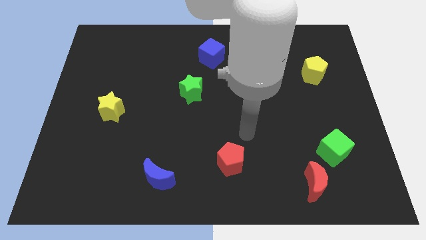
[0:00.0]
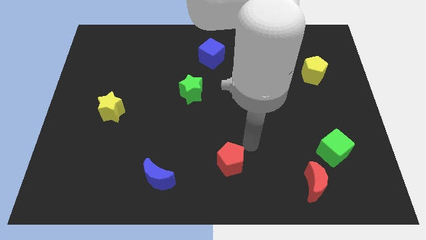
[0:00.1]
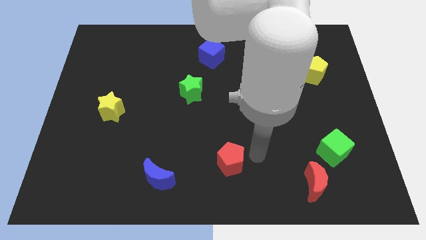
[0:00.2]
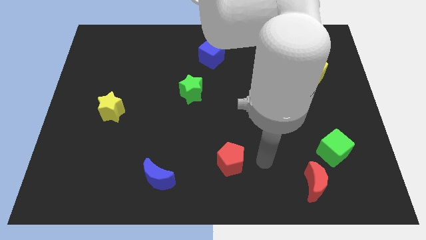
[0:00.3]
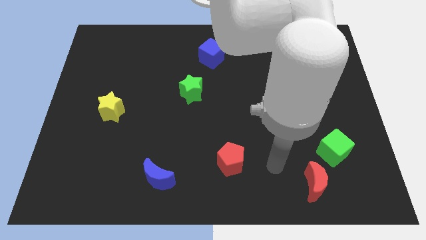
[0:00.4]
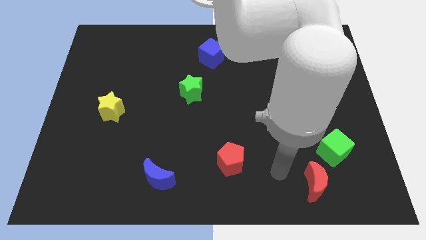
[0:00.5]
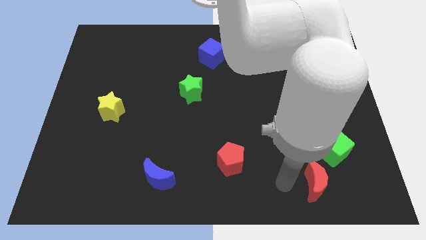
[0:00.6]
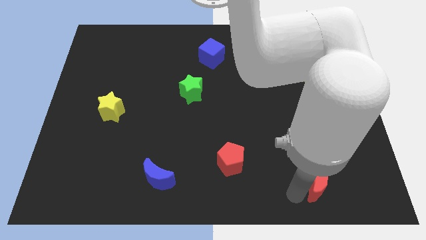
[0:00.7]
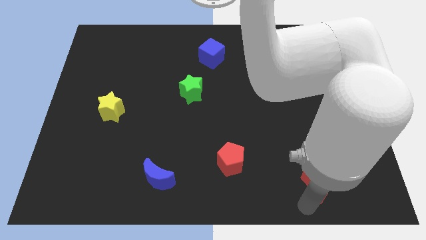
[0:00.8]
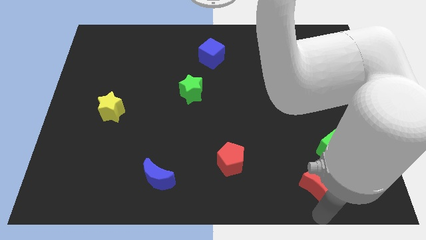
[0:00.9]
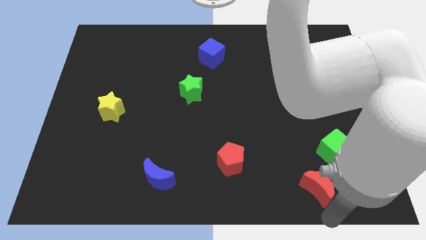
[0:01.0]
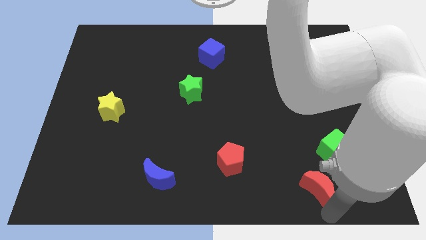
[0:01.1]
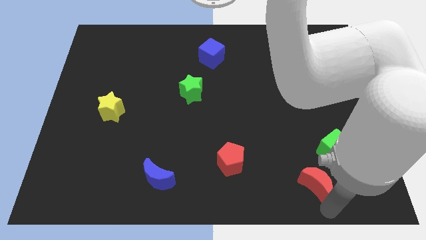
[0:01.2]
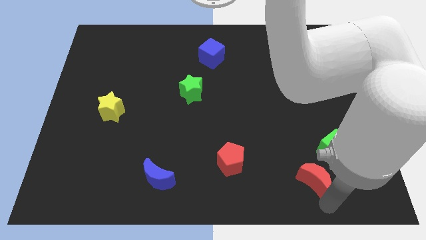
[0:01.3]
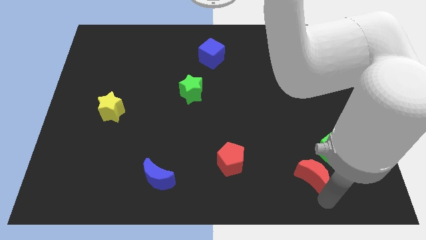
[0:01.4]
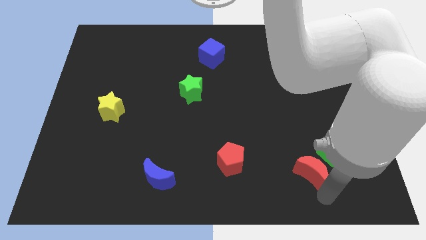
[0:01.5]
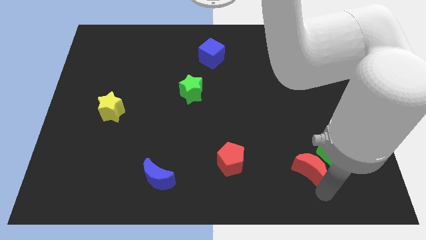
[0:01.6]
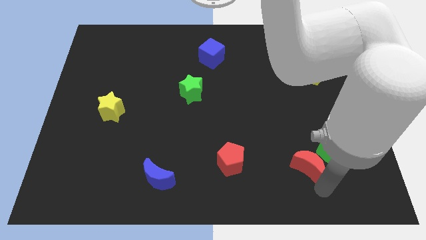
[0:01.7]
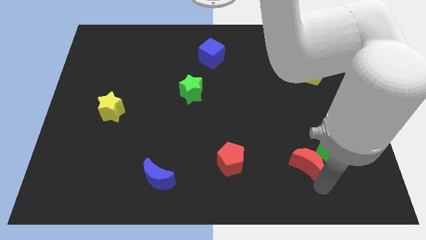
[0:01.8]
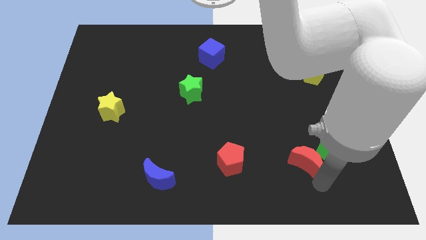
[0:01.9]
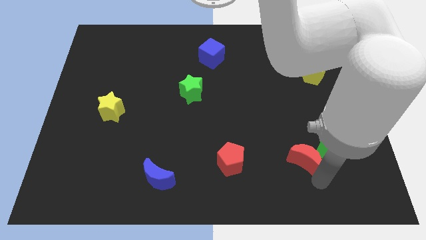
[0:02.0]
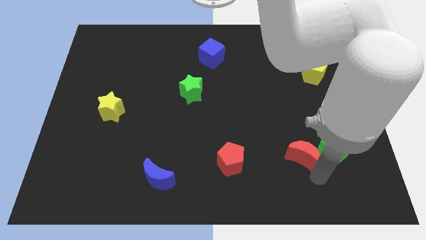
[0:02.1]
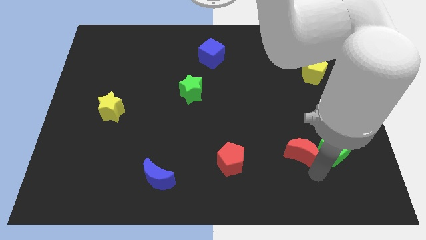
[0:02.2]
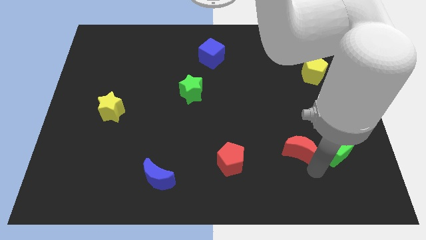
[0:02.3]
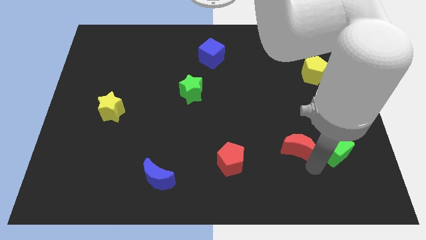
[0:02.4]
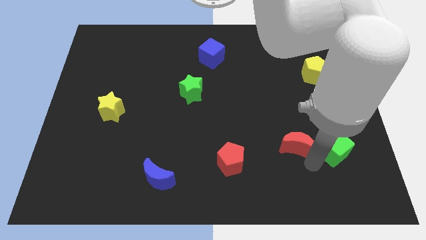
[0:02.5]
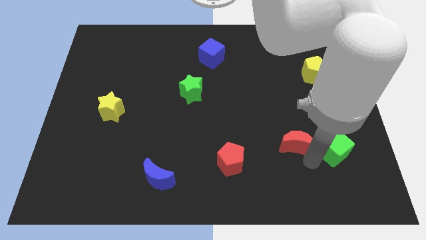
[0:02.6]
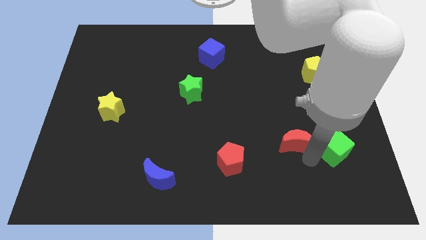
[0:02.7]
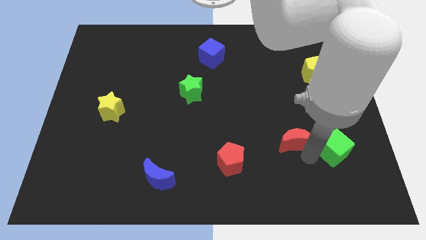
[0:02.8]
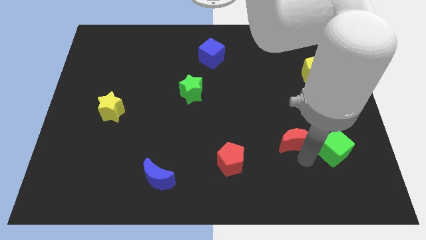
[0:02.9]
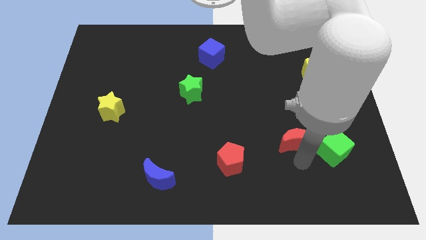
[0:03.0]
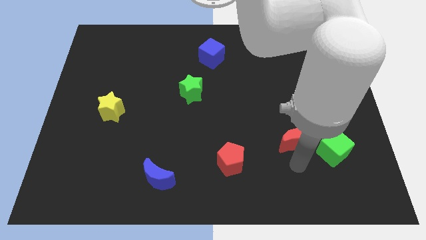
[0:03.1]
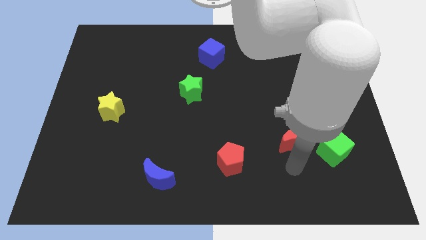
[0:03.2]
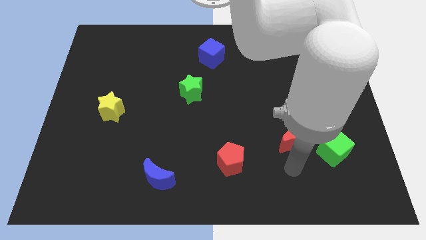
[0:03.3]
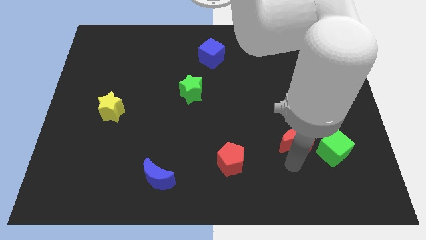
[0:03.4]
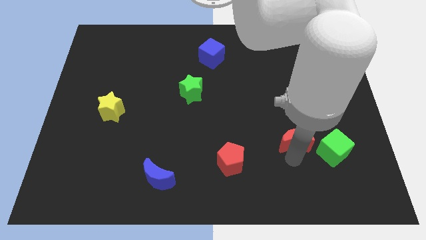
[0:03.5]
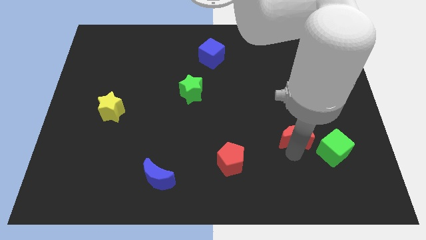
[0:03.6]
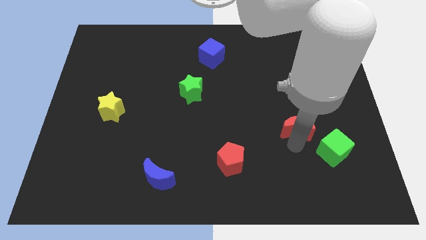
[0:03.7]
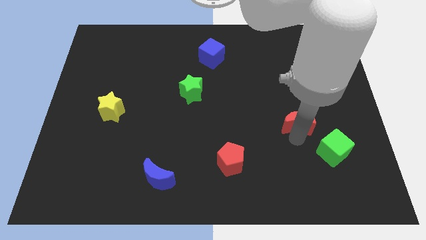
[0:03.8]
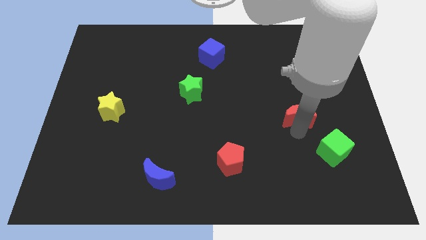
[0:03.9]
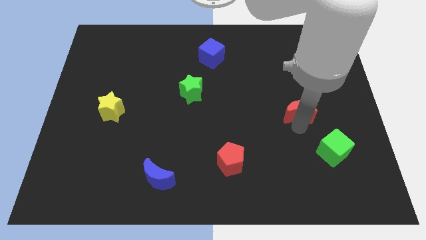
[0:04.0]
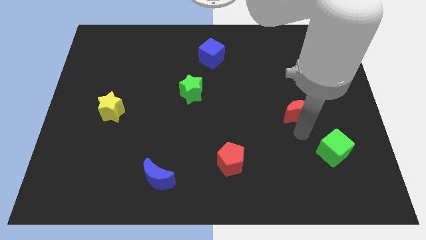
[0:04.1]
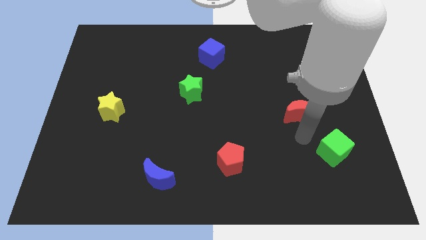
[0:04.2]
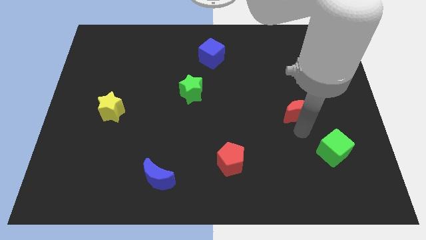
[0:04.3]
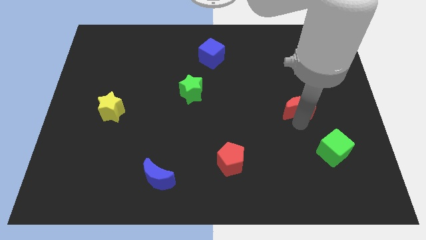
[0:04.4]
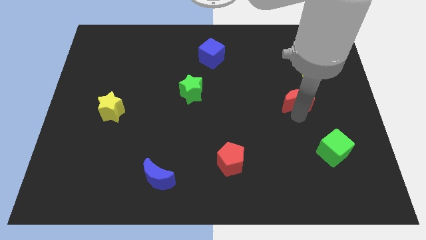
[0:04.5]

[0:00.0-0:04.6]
slide the red moon upwards

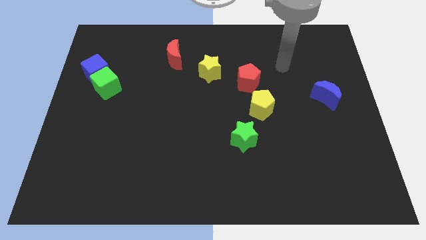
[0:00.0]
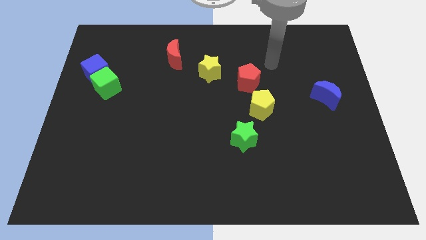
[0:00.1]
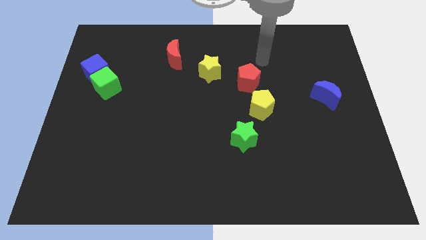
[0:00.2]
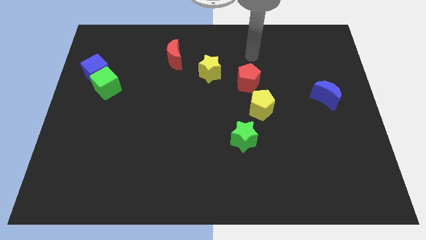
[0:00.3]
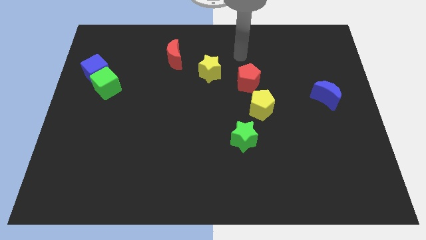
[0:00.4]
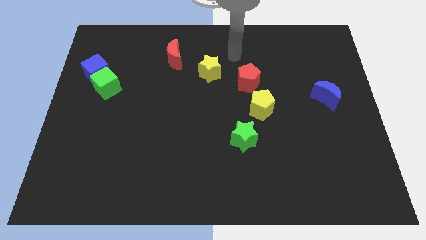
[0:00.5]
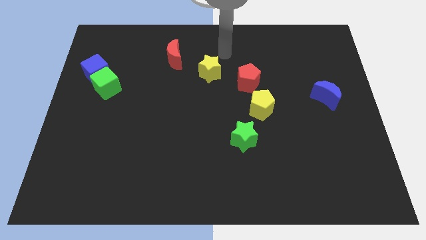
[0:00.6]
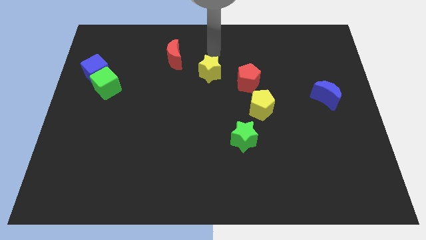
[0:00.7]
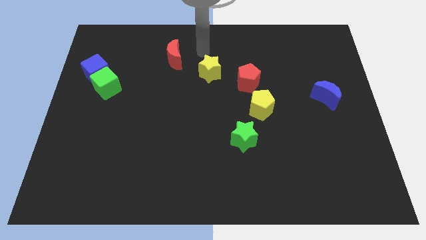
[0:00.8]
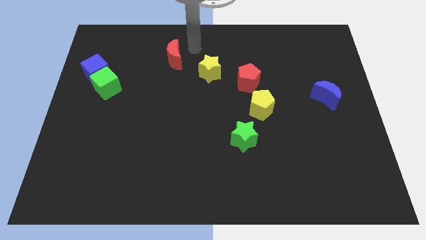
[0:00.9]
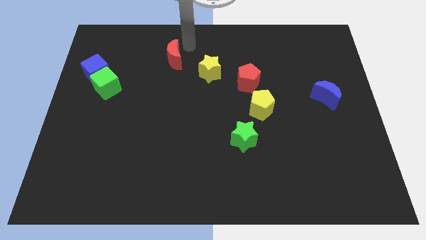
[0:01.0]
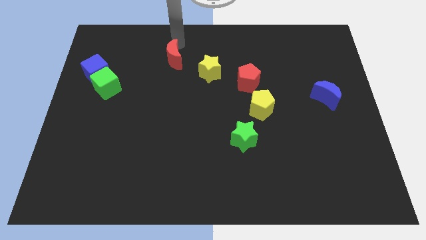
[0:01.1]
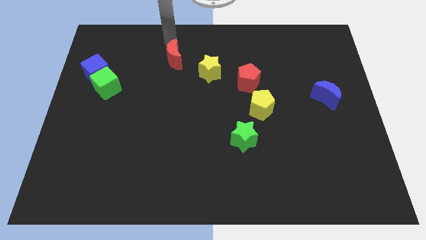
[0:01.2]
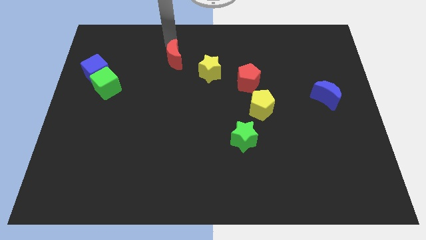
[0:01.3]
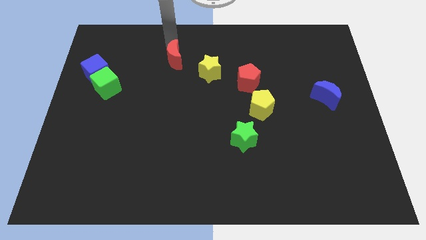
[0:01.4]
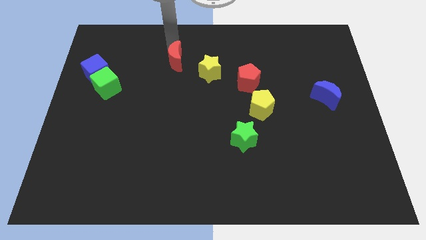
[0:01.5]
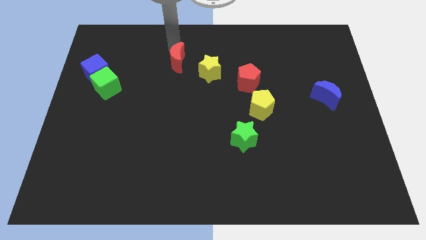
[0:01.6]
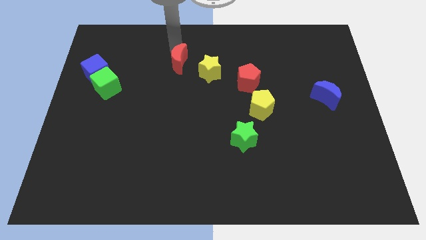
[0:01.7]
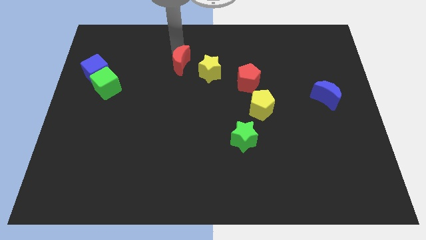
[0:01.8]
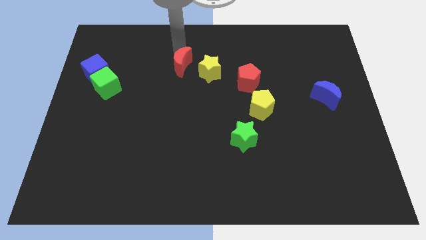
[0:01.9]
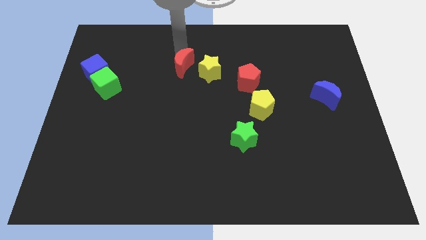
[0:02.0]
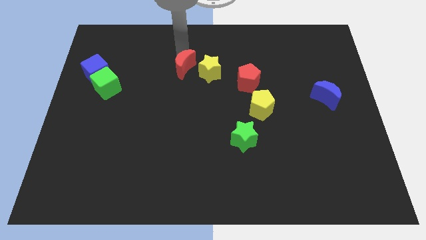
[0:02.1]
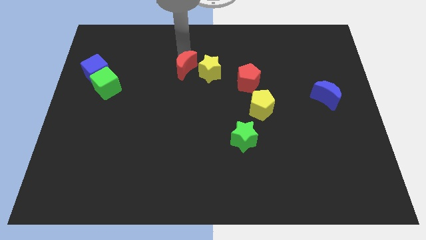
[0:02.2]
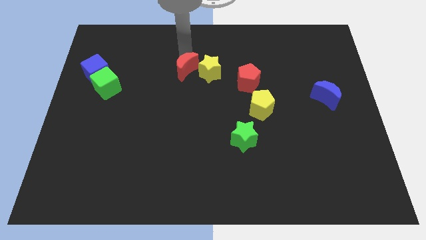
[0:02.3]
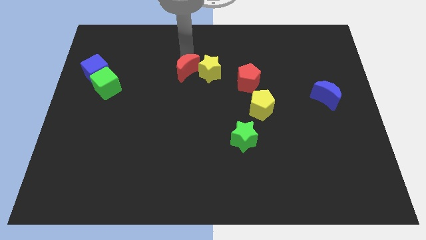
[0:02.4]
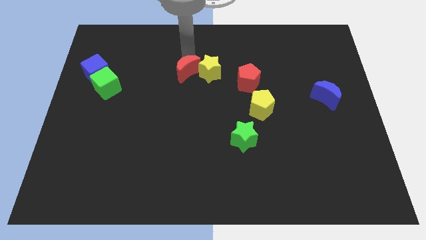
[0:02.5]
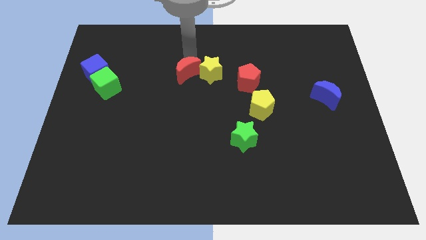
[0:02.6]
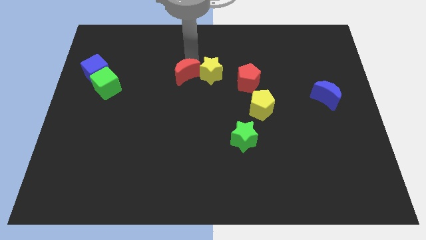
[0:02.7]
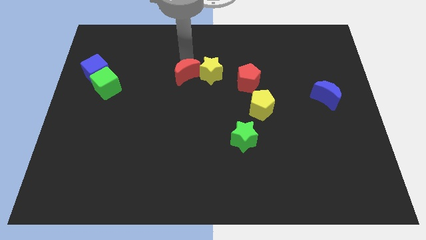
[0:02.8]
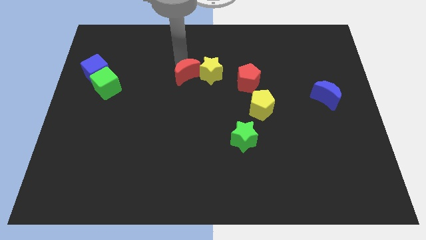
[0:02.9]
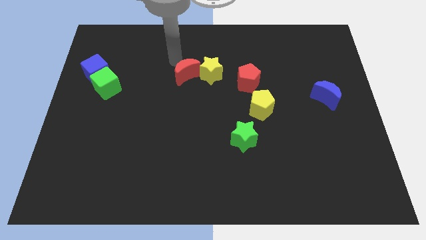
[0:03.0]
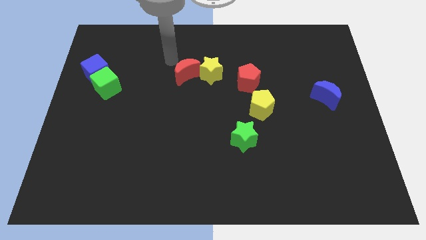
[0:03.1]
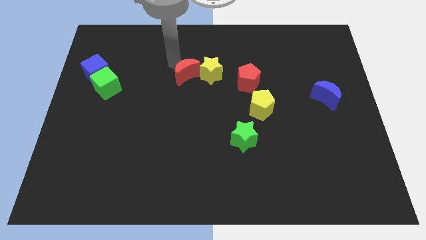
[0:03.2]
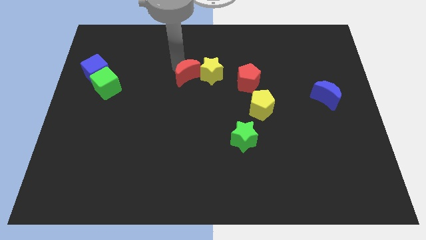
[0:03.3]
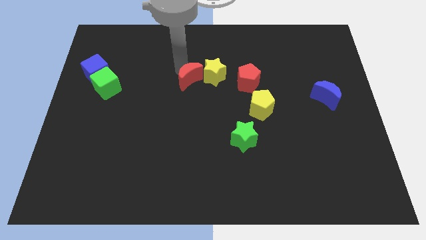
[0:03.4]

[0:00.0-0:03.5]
push the red moon down and to the right slightly

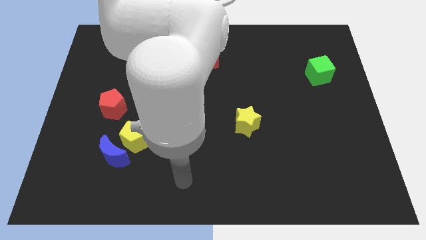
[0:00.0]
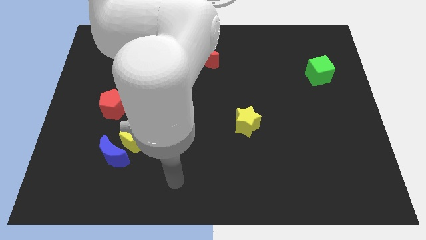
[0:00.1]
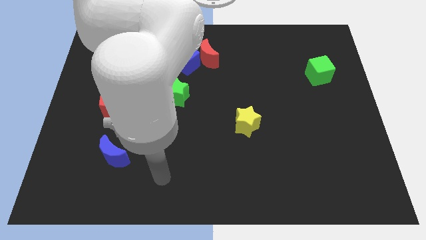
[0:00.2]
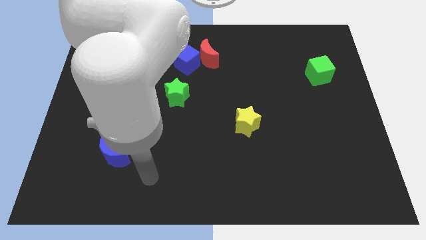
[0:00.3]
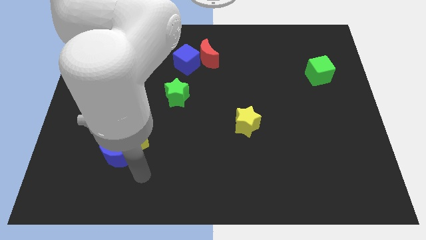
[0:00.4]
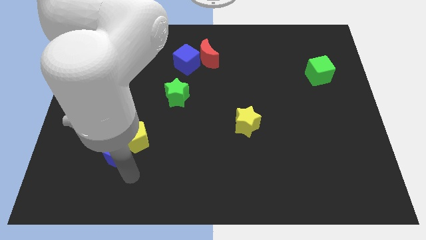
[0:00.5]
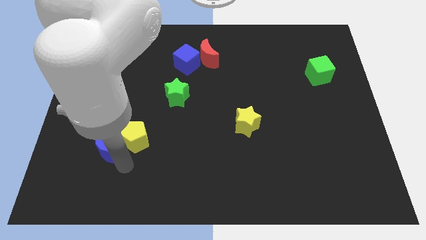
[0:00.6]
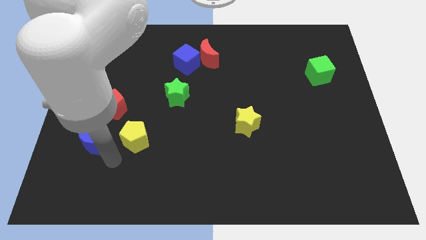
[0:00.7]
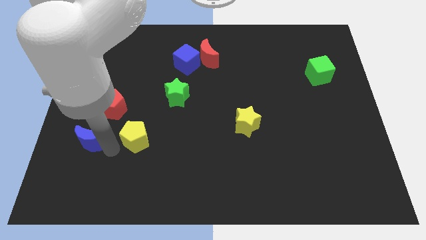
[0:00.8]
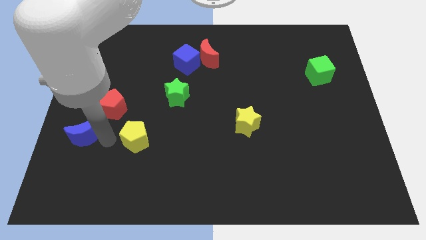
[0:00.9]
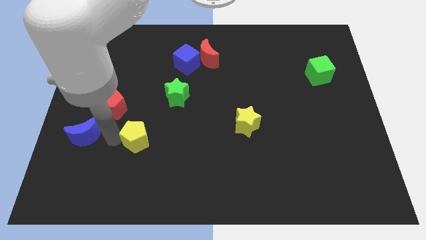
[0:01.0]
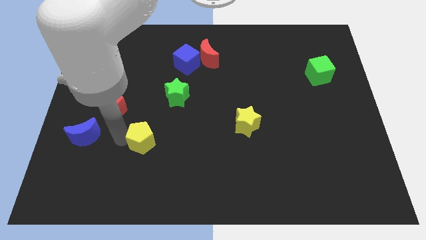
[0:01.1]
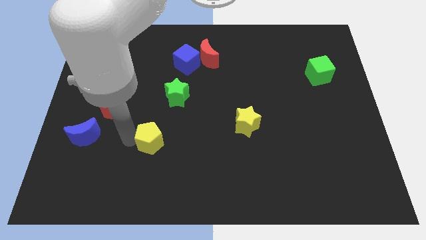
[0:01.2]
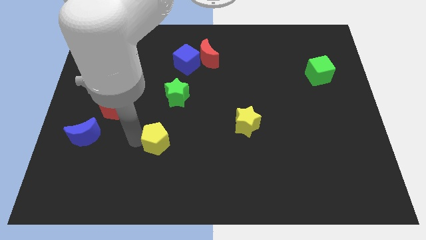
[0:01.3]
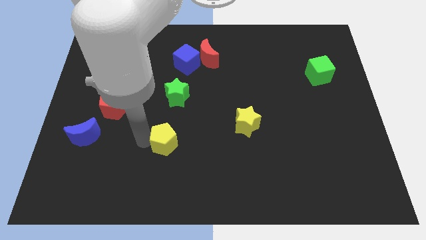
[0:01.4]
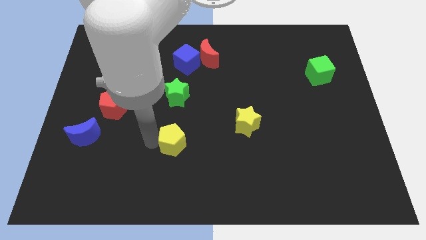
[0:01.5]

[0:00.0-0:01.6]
push the yellow pentagon to the right slightly
